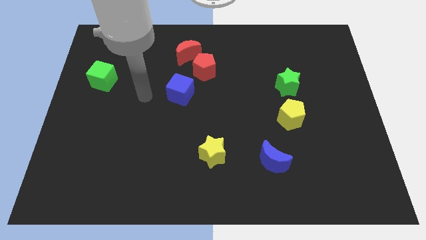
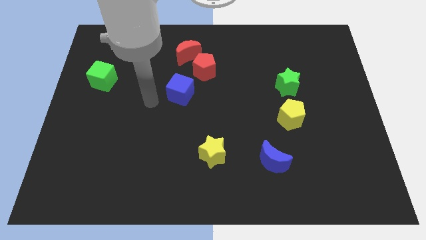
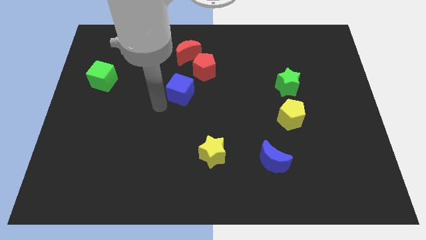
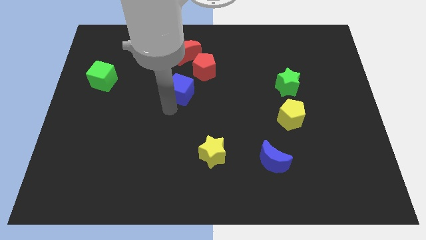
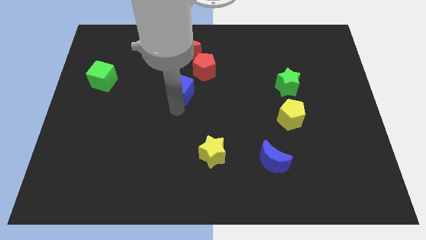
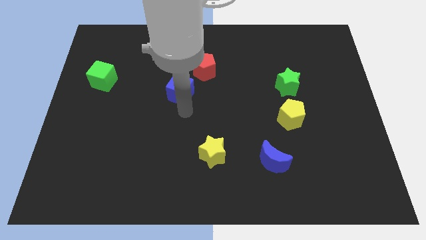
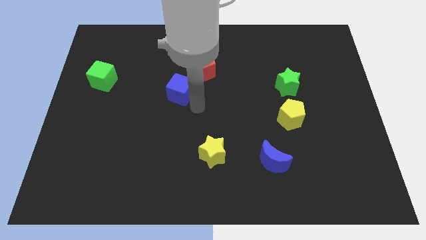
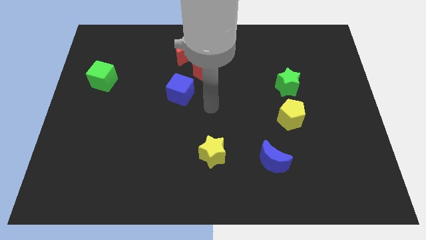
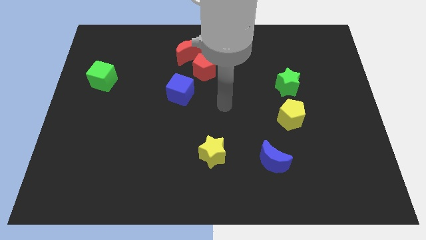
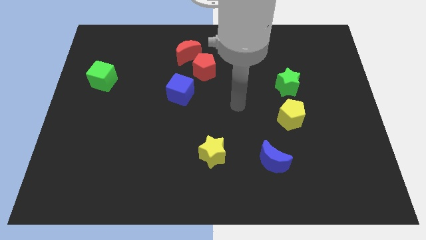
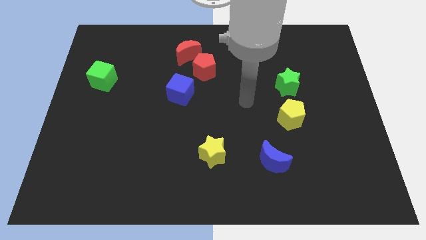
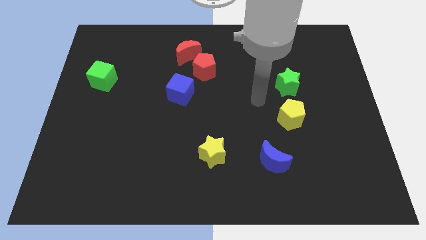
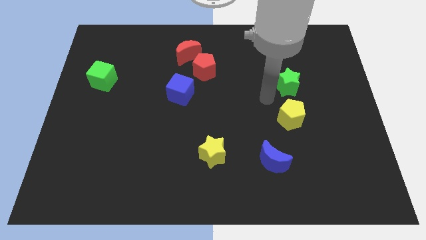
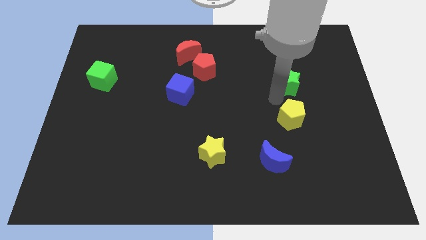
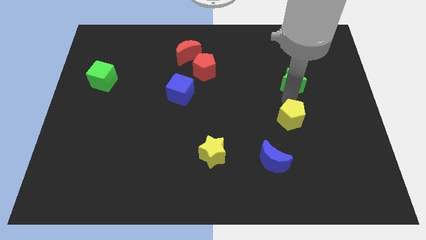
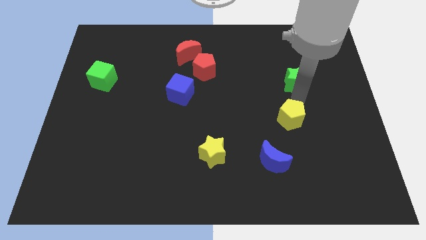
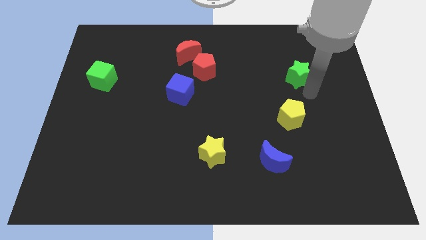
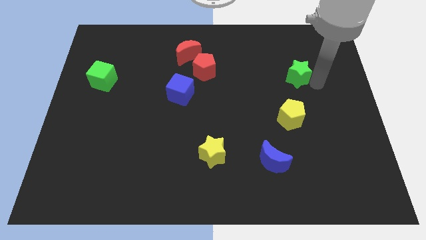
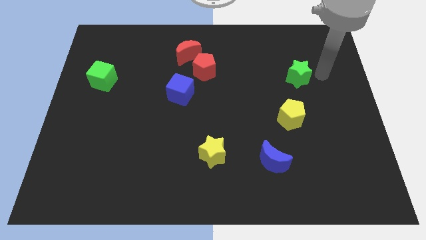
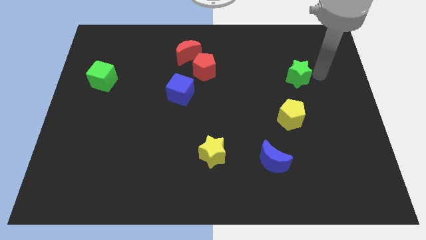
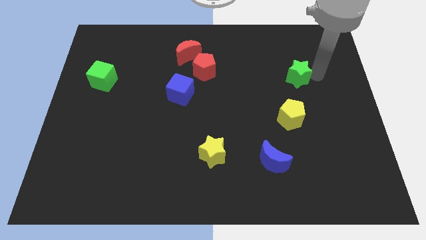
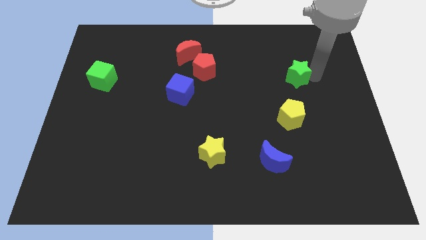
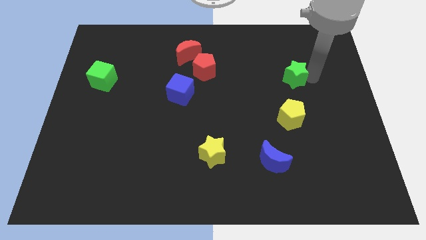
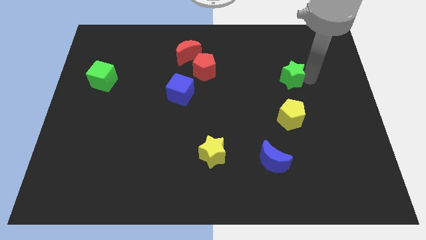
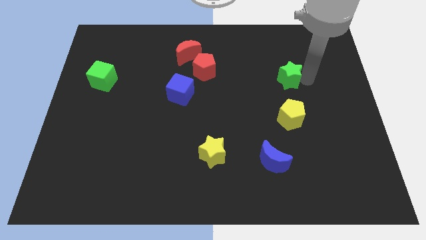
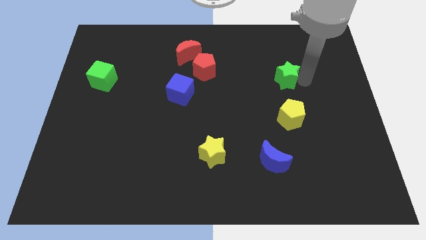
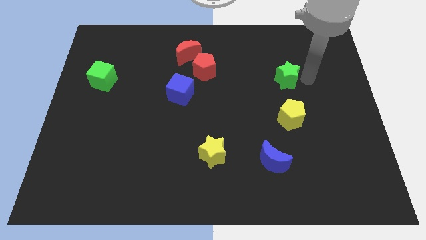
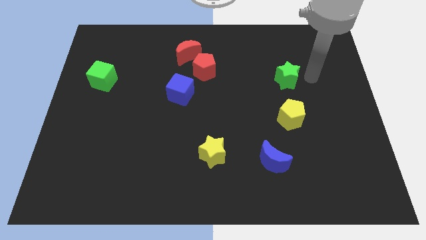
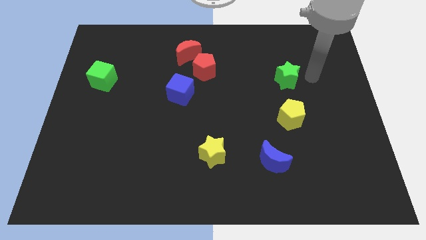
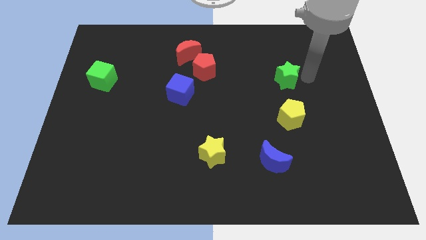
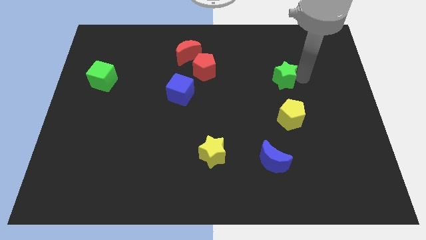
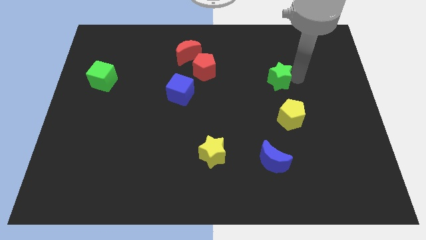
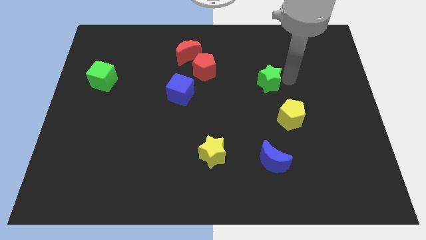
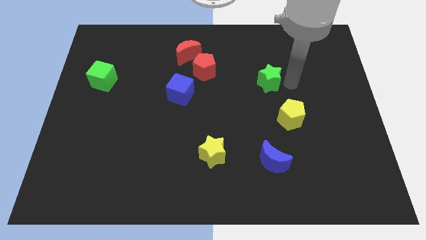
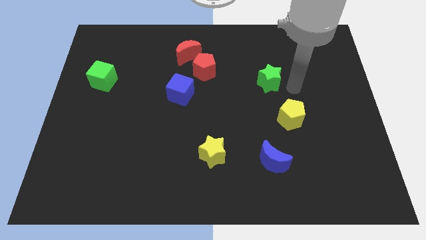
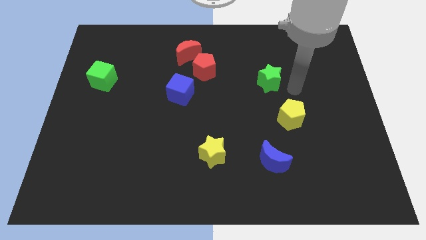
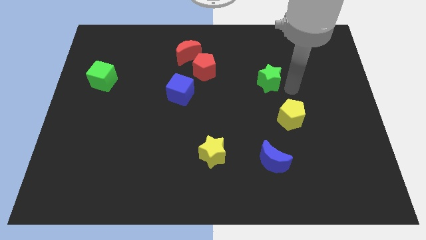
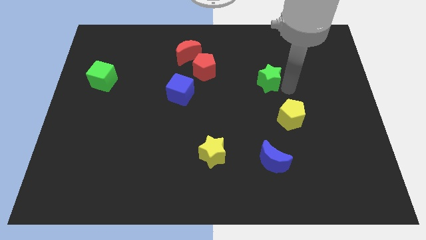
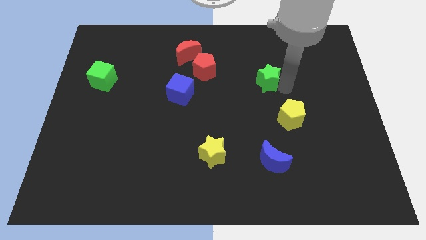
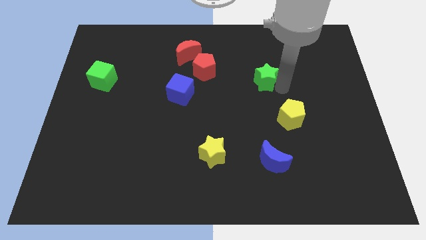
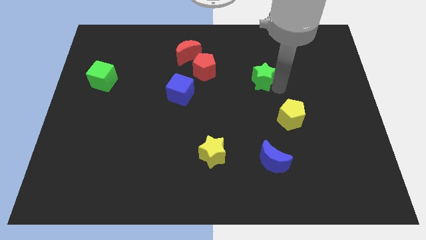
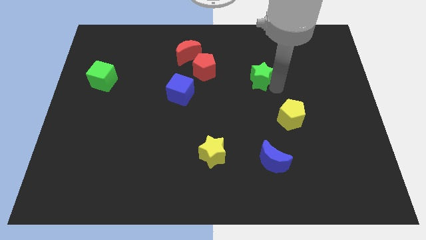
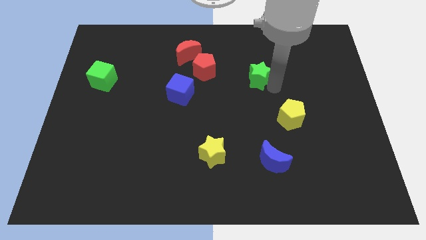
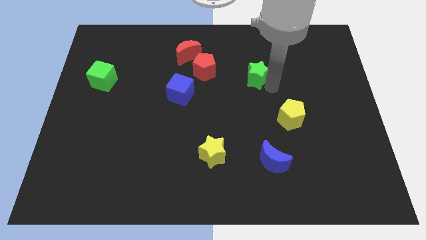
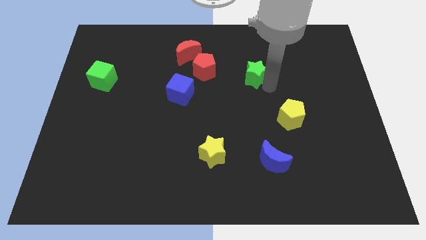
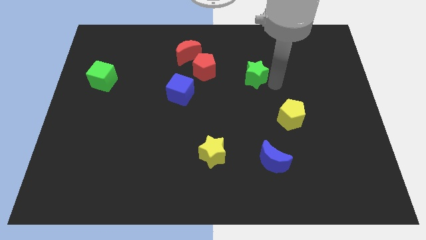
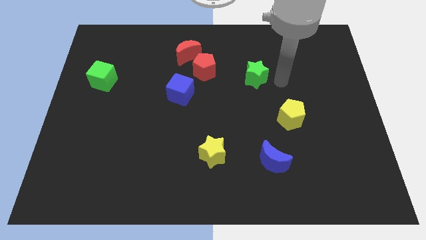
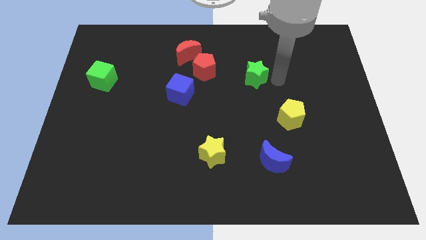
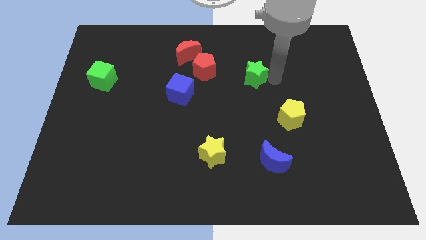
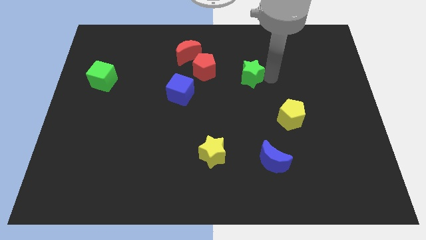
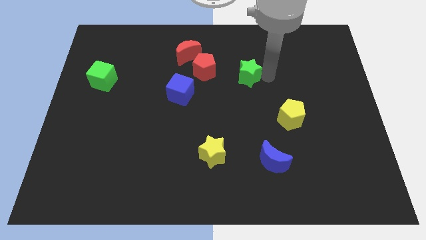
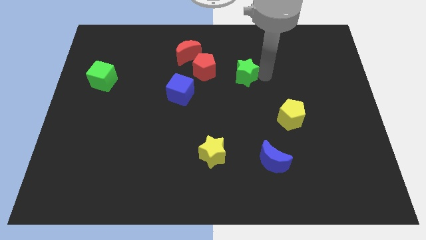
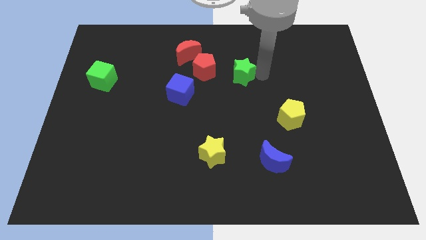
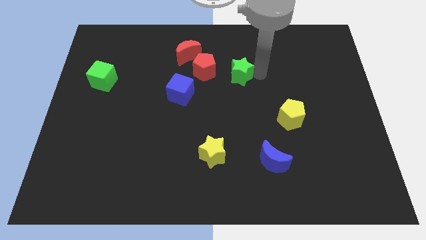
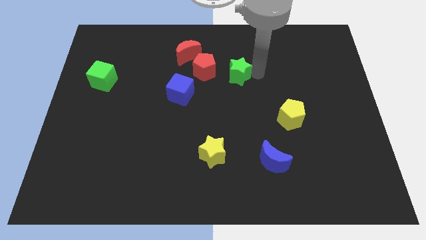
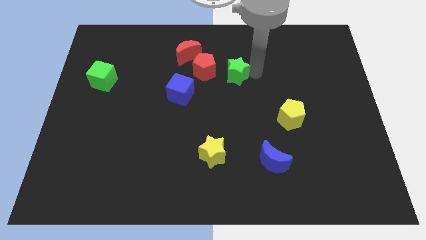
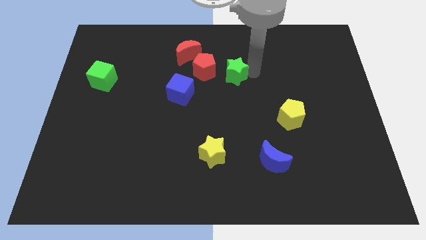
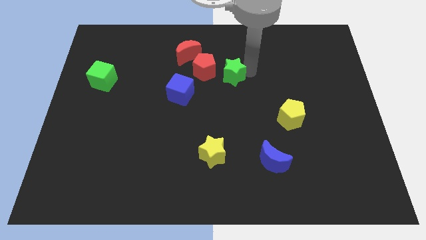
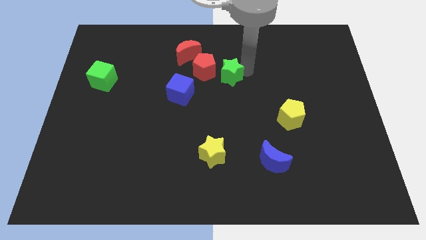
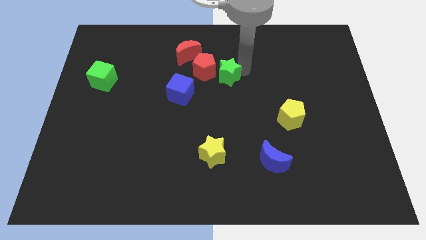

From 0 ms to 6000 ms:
push the green star next to the red pentagon

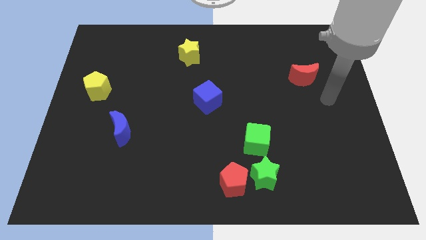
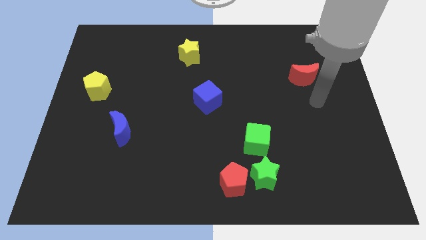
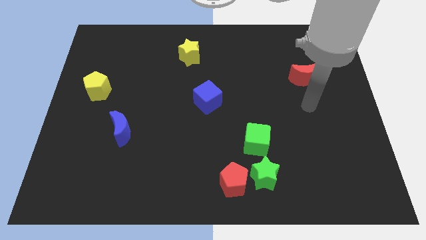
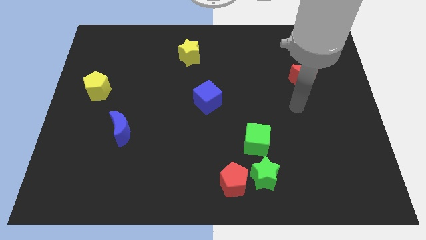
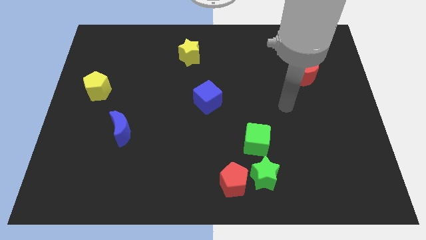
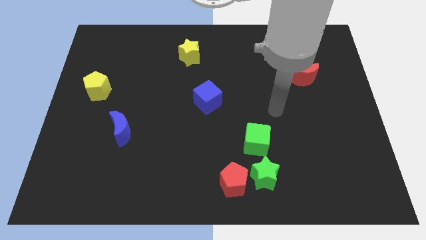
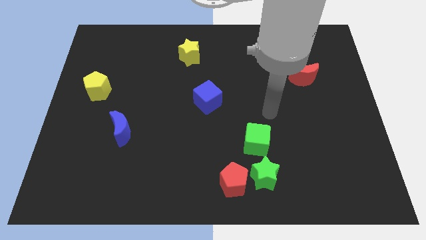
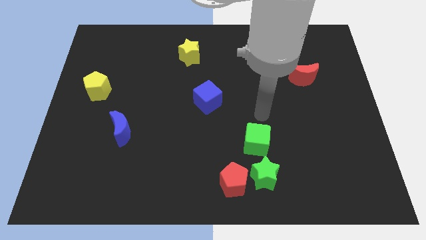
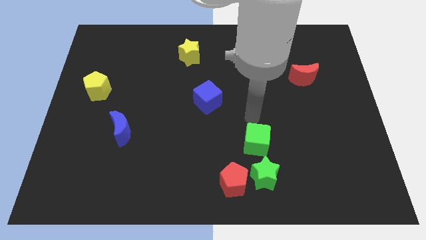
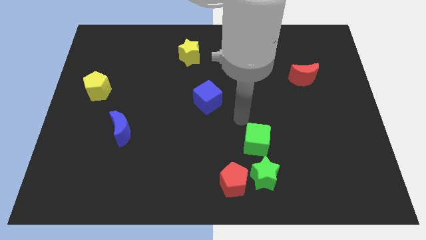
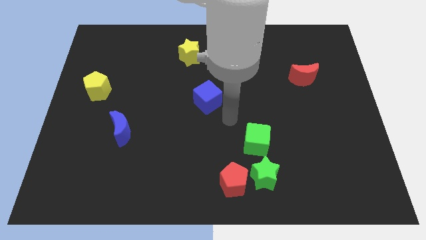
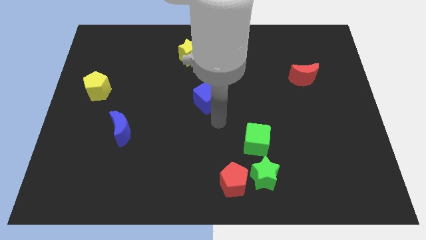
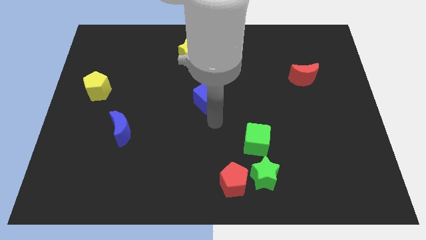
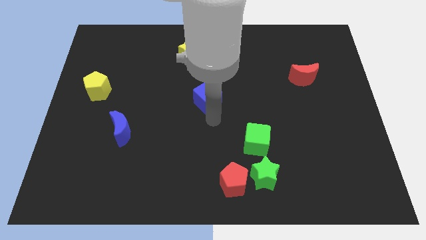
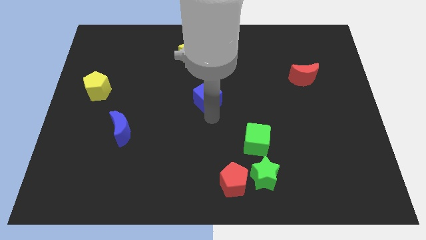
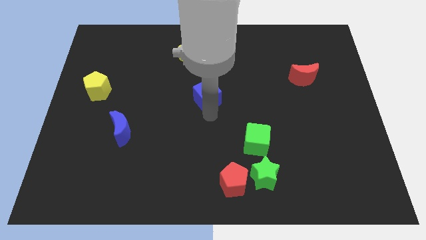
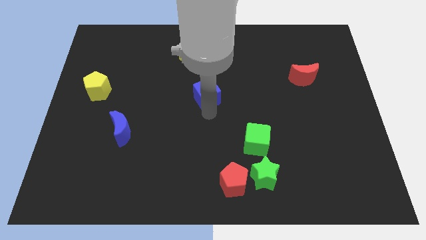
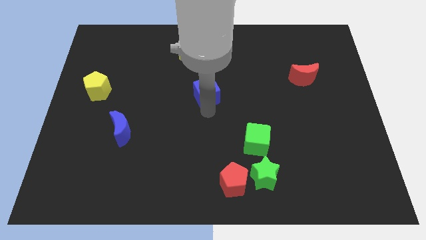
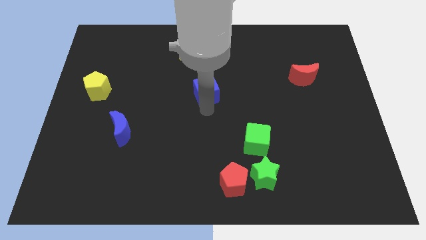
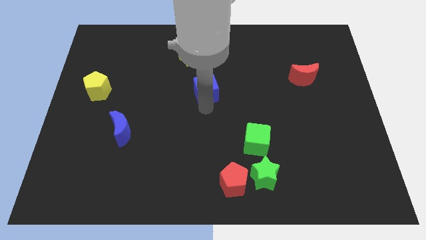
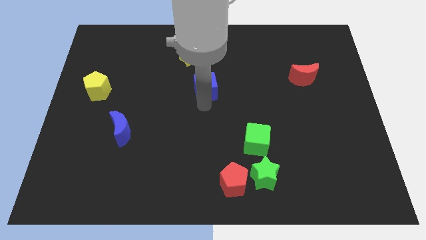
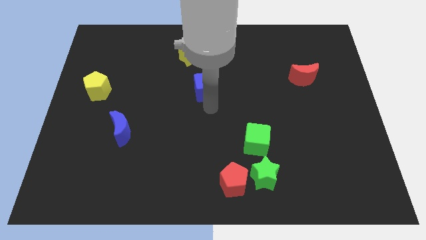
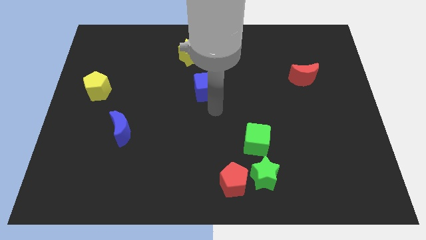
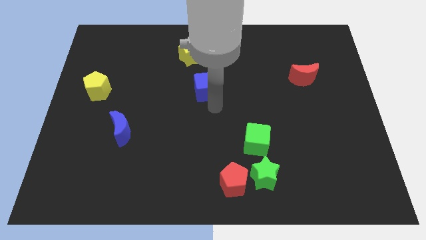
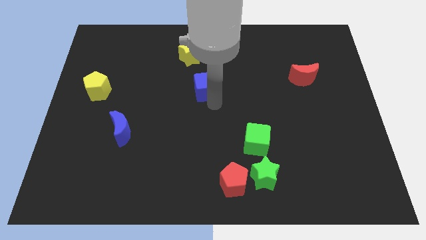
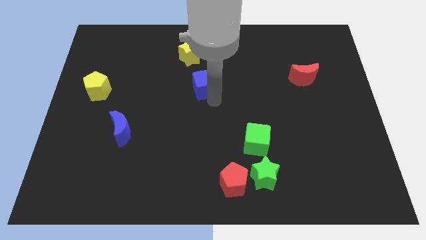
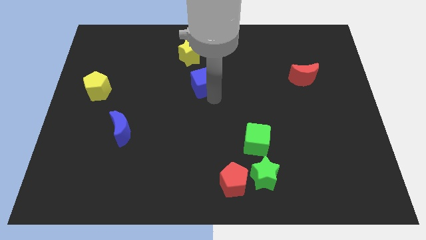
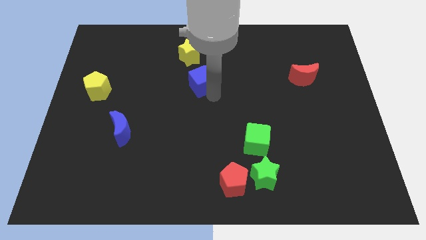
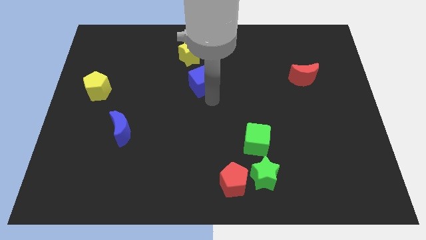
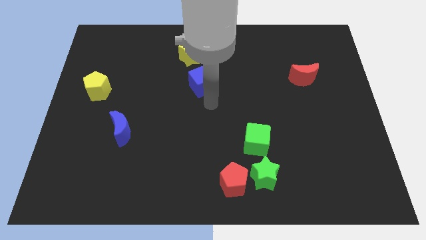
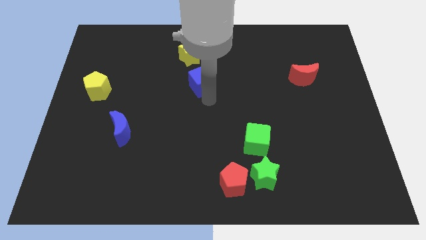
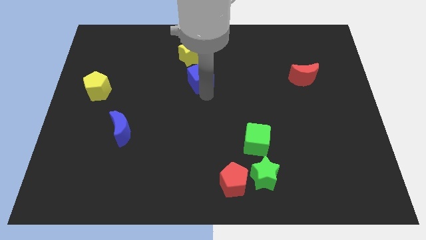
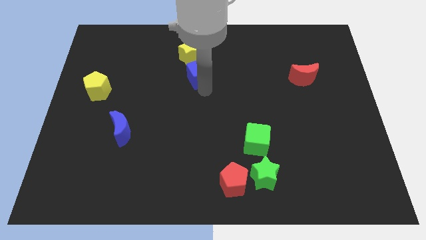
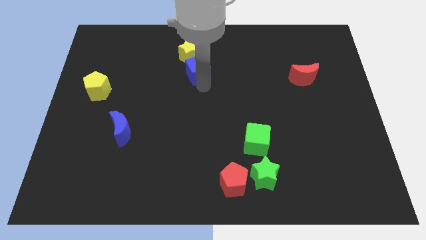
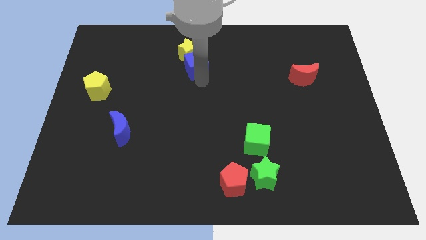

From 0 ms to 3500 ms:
slide the blue cube close to the yellow star
